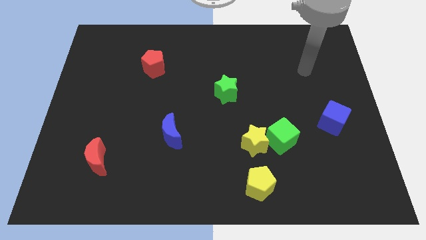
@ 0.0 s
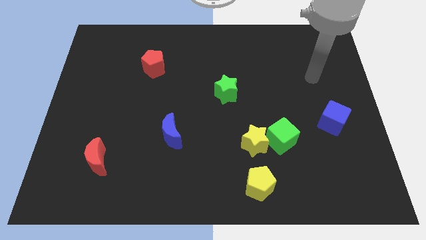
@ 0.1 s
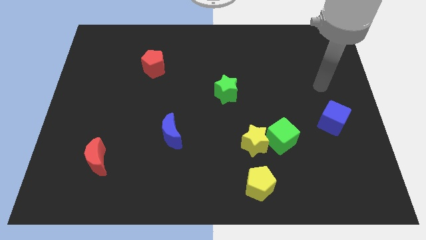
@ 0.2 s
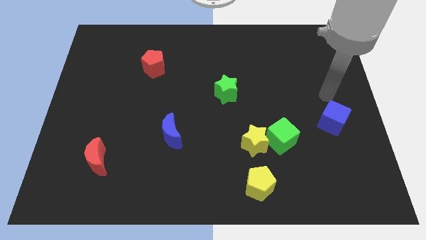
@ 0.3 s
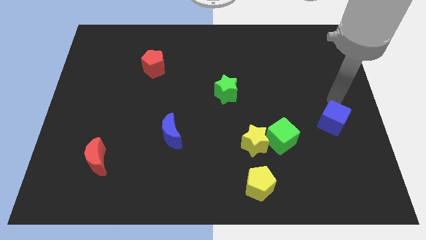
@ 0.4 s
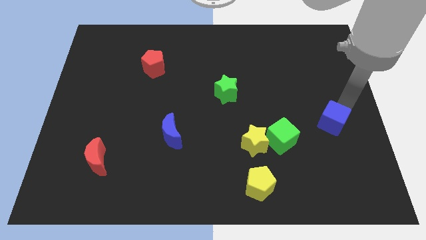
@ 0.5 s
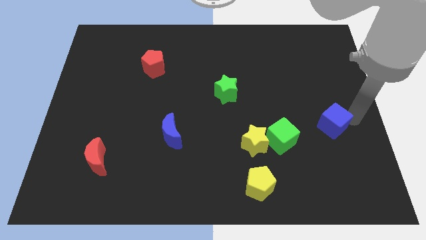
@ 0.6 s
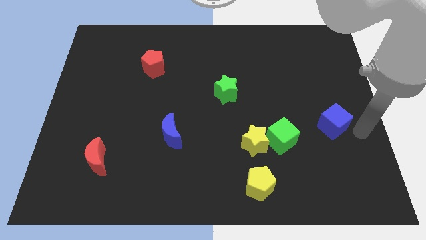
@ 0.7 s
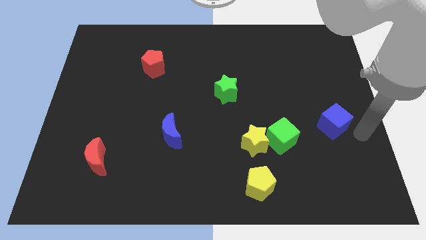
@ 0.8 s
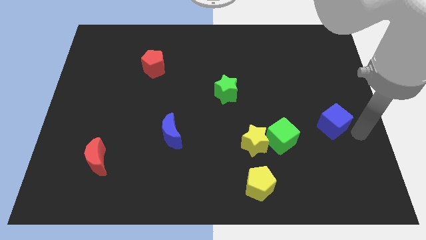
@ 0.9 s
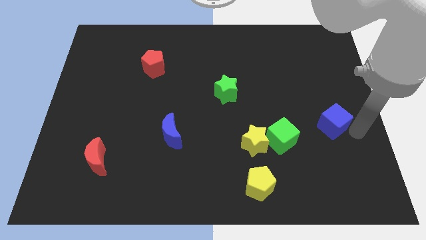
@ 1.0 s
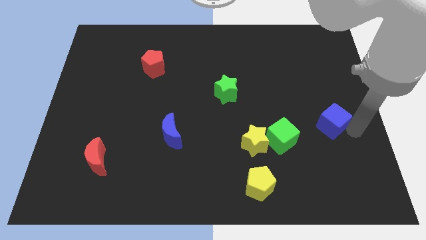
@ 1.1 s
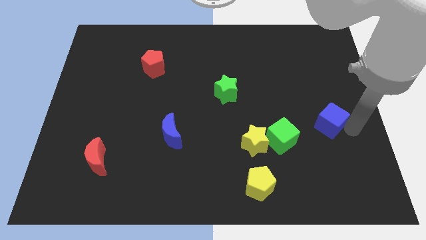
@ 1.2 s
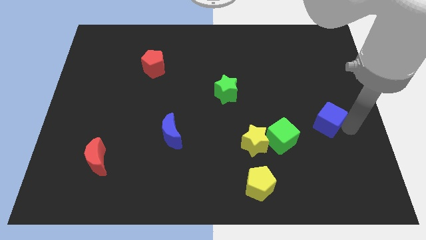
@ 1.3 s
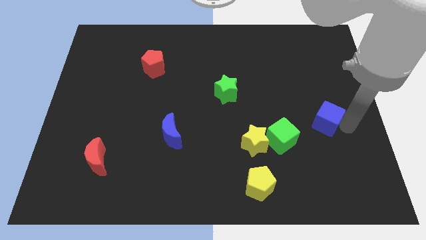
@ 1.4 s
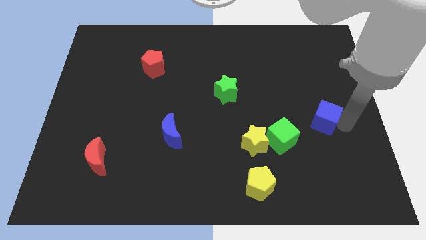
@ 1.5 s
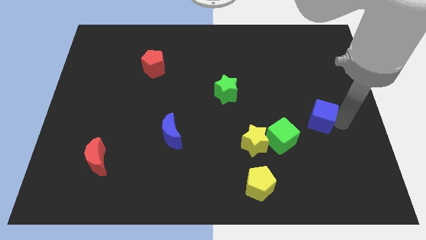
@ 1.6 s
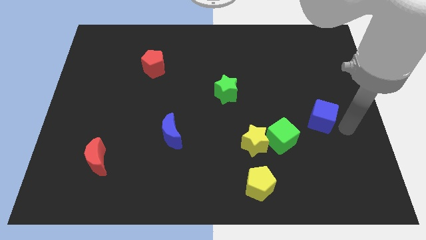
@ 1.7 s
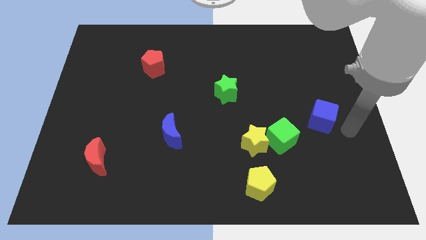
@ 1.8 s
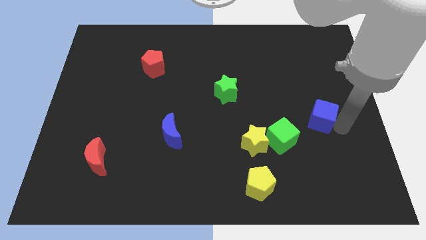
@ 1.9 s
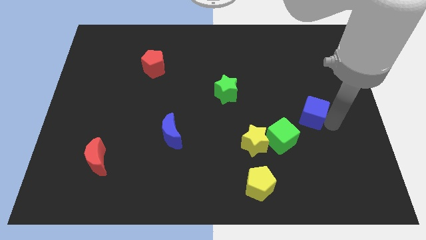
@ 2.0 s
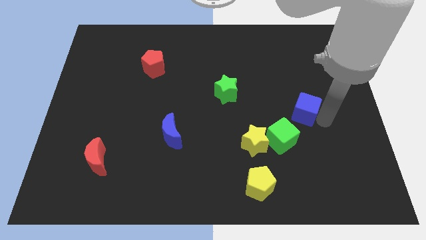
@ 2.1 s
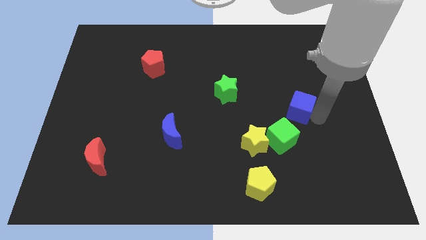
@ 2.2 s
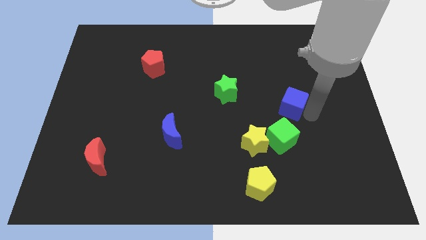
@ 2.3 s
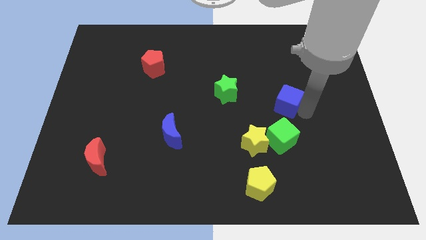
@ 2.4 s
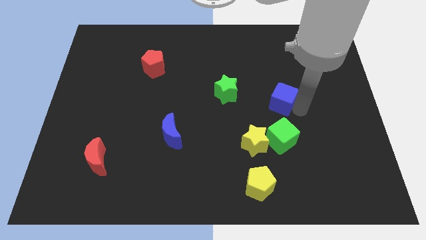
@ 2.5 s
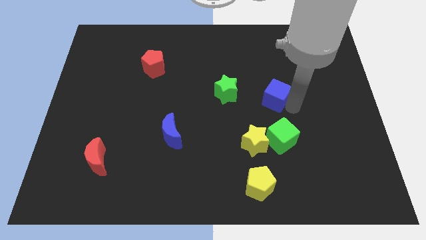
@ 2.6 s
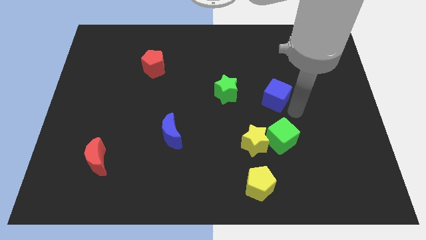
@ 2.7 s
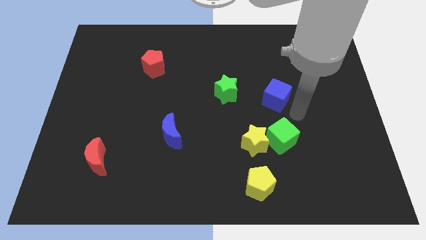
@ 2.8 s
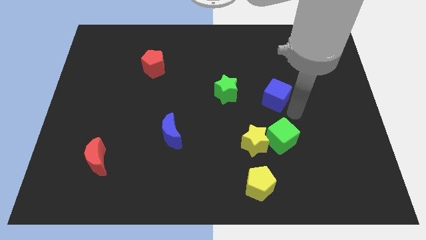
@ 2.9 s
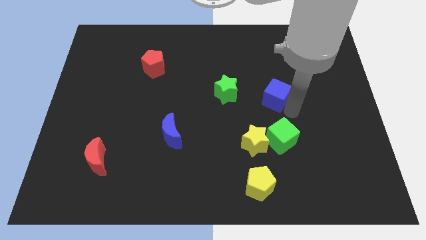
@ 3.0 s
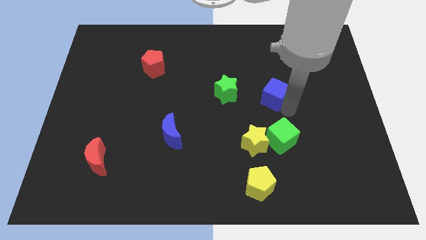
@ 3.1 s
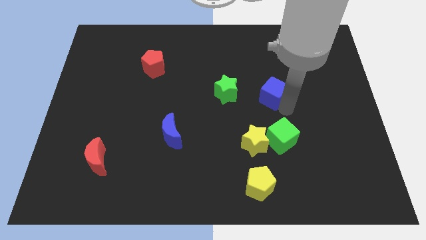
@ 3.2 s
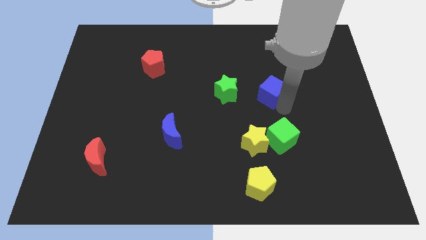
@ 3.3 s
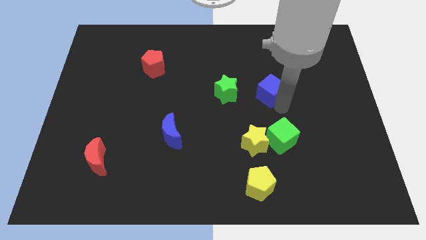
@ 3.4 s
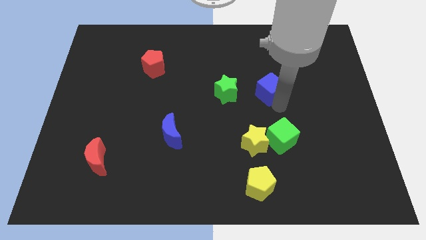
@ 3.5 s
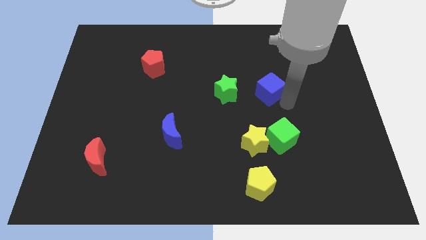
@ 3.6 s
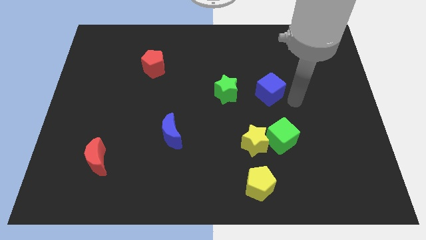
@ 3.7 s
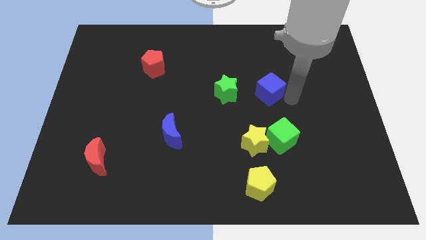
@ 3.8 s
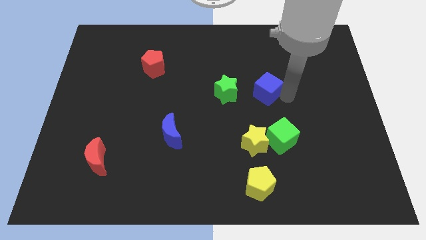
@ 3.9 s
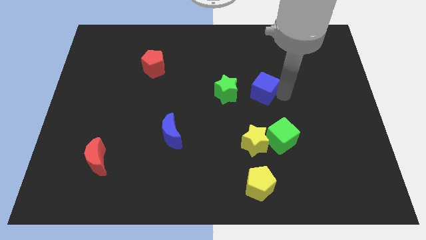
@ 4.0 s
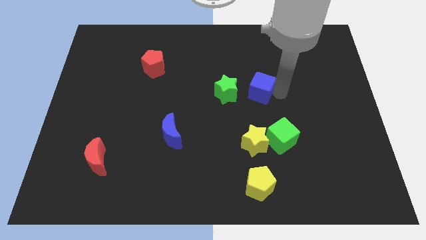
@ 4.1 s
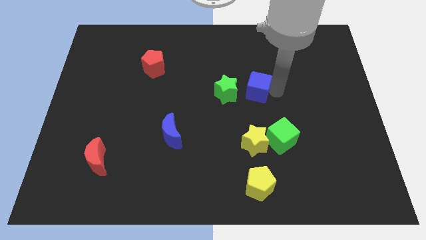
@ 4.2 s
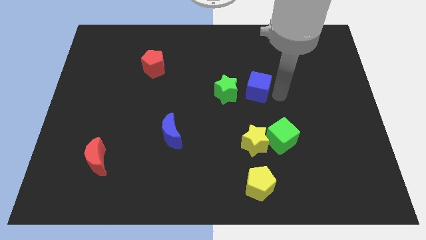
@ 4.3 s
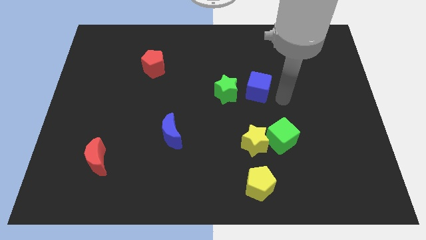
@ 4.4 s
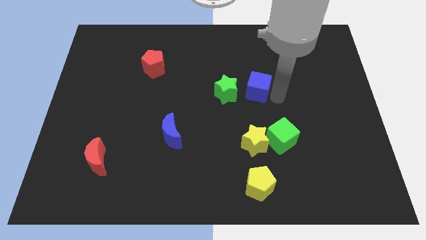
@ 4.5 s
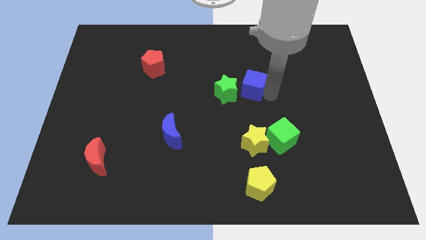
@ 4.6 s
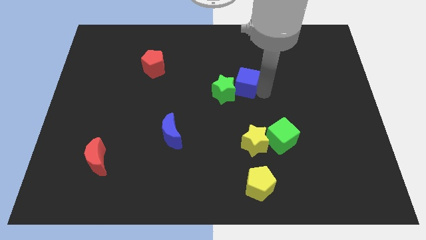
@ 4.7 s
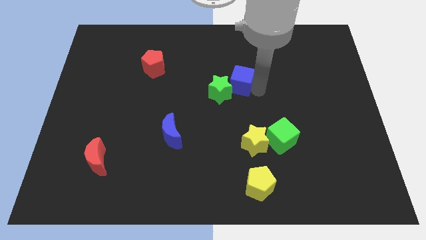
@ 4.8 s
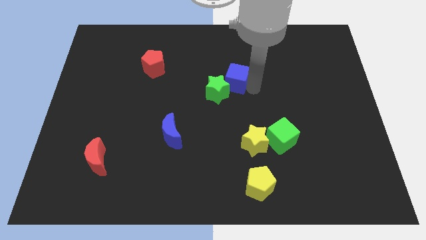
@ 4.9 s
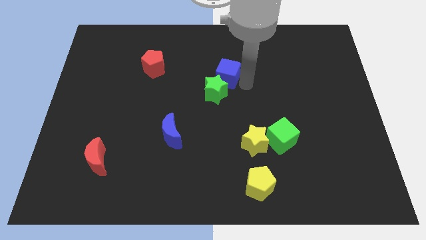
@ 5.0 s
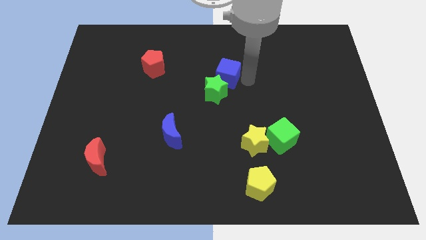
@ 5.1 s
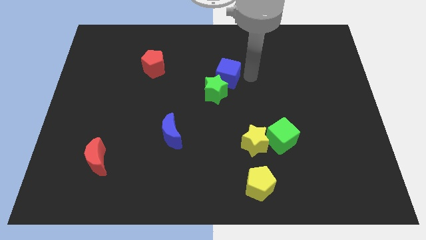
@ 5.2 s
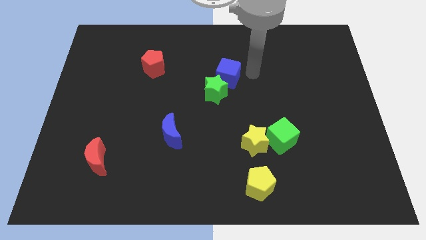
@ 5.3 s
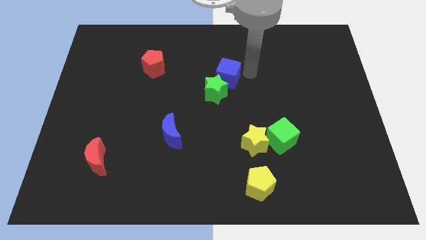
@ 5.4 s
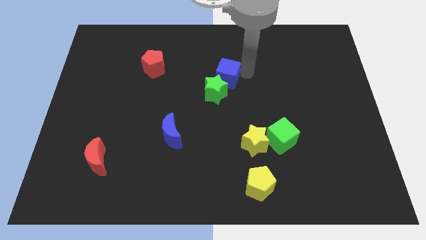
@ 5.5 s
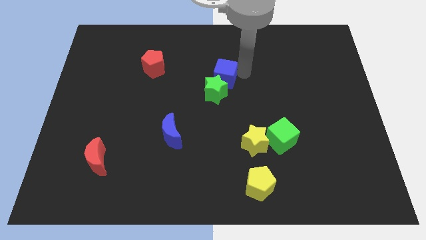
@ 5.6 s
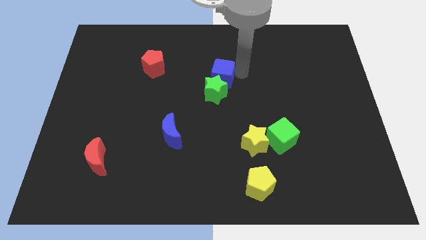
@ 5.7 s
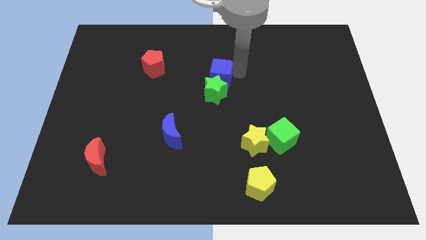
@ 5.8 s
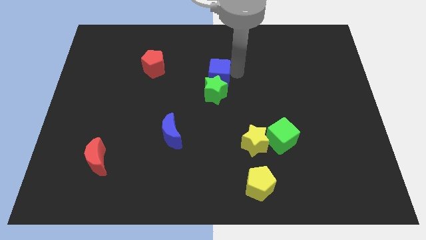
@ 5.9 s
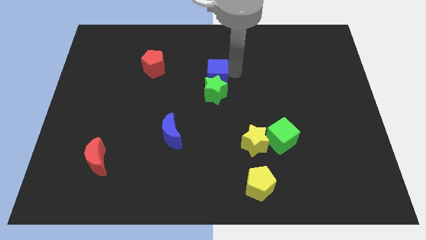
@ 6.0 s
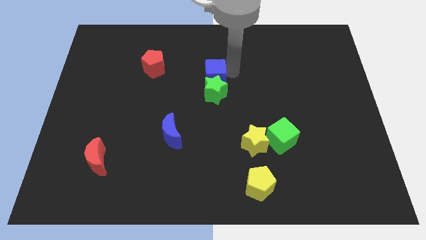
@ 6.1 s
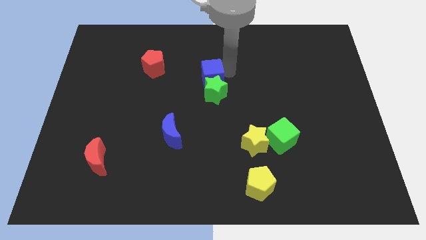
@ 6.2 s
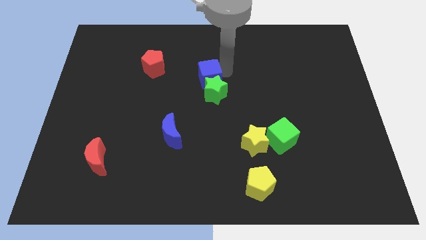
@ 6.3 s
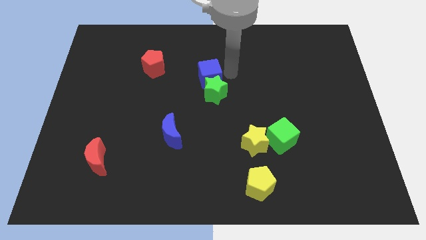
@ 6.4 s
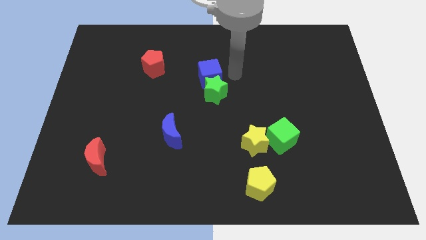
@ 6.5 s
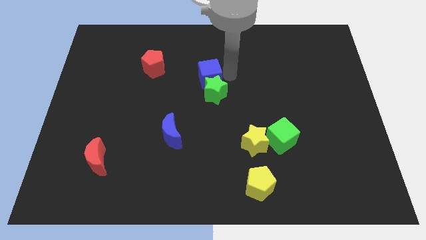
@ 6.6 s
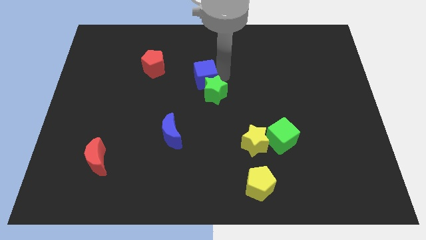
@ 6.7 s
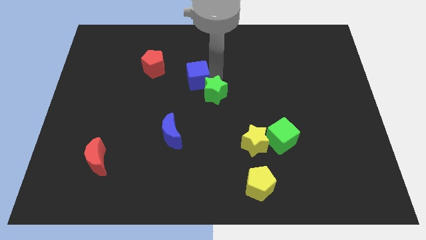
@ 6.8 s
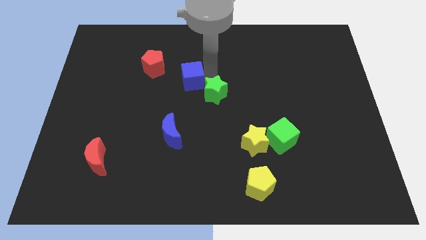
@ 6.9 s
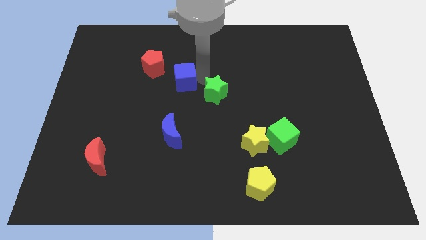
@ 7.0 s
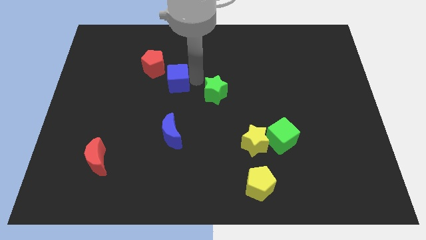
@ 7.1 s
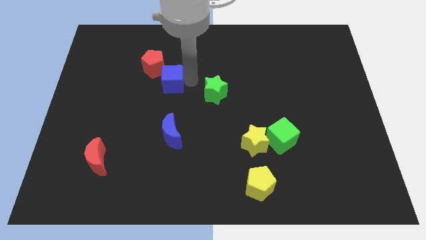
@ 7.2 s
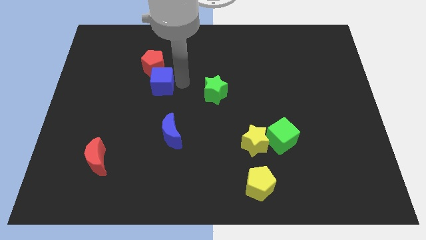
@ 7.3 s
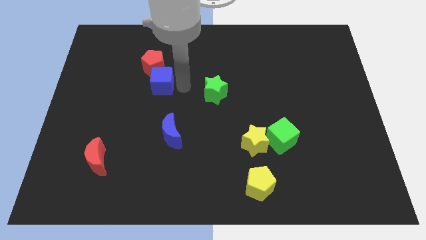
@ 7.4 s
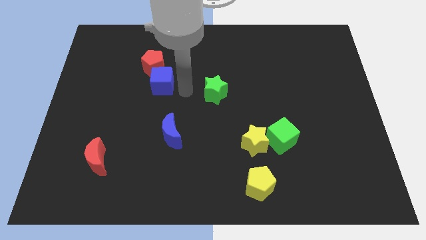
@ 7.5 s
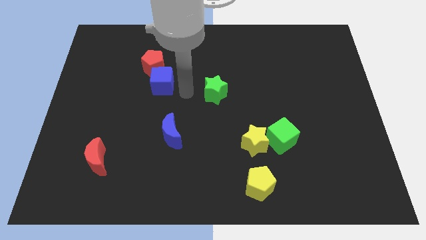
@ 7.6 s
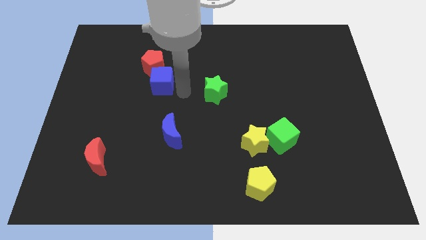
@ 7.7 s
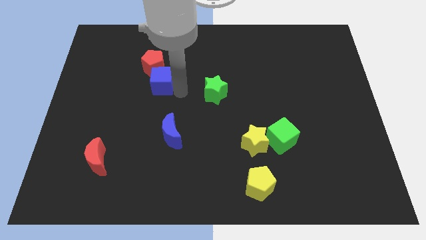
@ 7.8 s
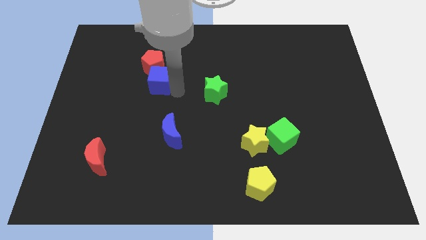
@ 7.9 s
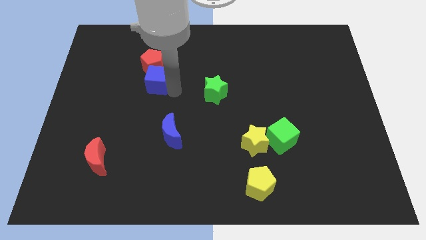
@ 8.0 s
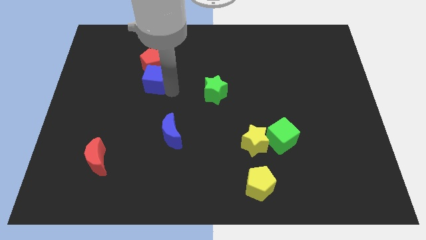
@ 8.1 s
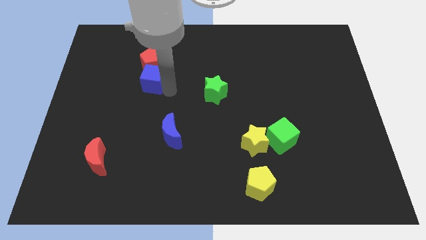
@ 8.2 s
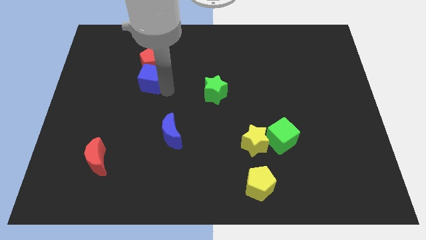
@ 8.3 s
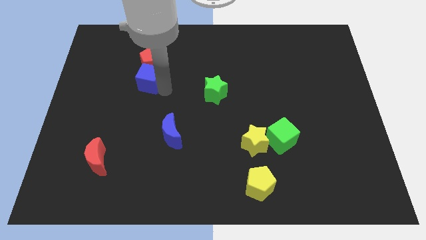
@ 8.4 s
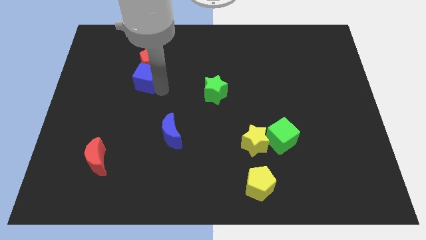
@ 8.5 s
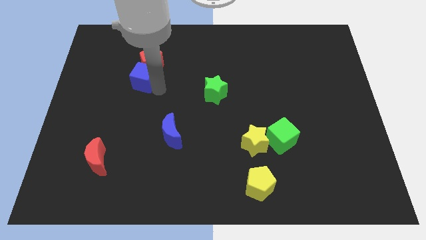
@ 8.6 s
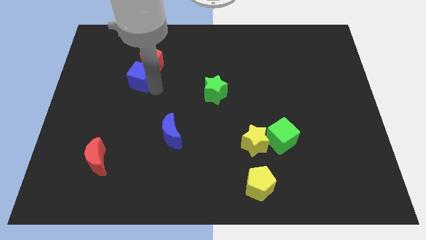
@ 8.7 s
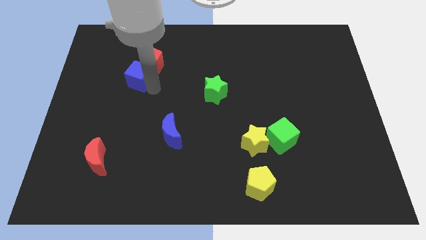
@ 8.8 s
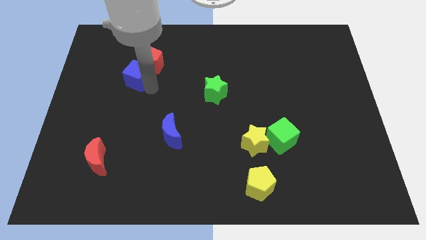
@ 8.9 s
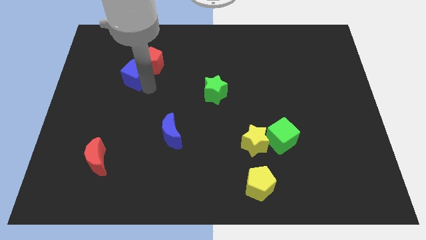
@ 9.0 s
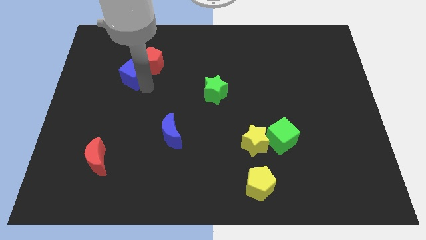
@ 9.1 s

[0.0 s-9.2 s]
put the blue cube to the left side of the red pentagon
